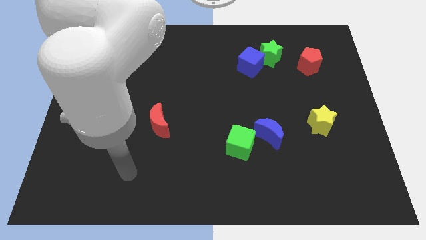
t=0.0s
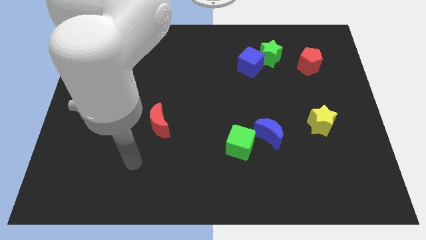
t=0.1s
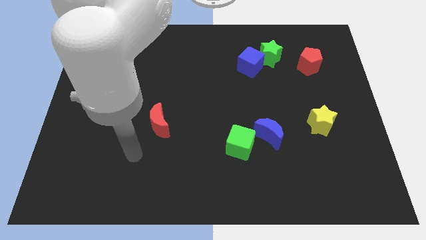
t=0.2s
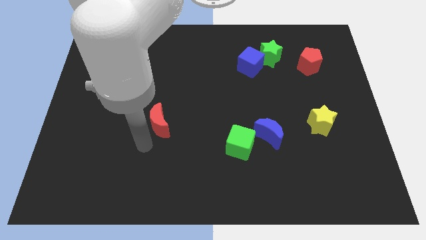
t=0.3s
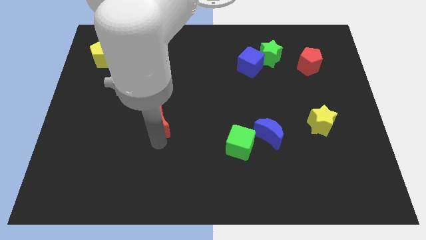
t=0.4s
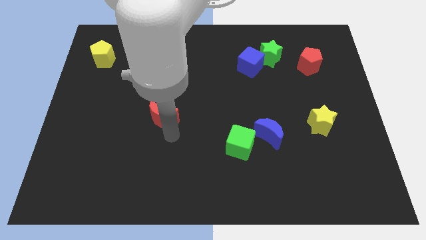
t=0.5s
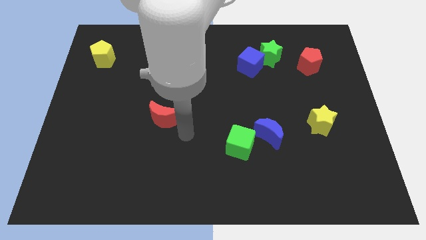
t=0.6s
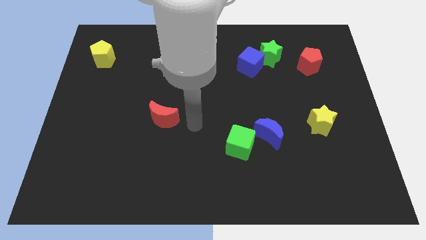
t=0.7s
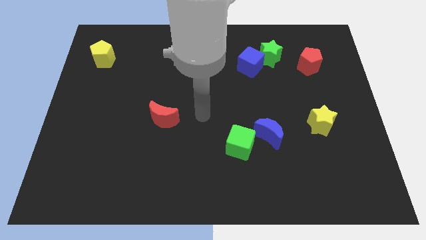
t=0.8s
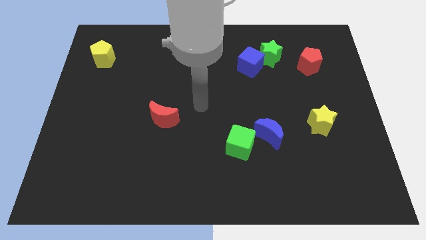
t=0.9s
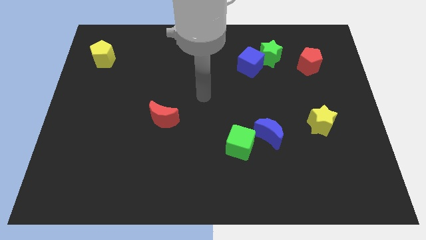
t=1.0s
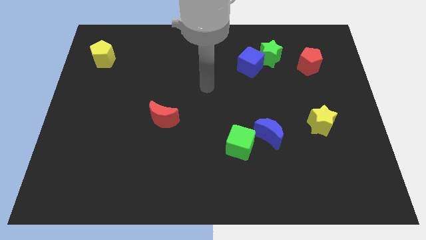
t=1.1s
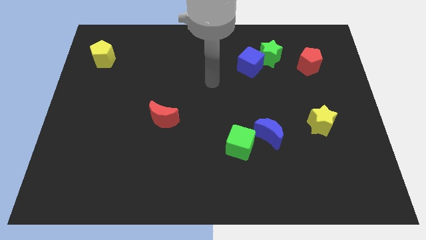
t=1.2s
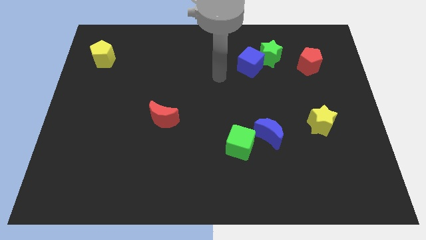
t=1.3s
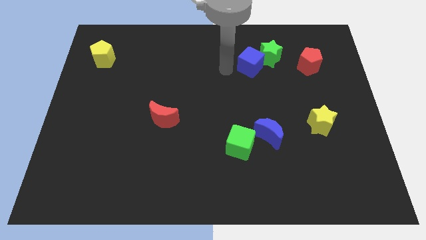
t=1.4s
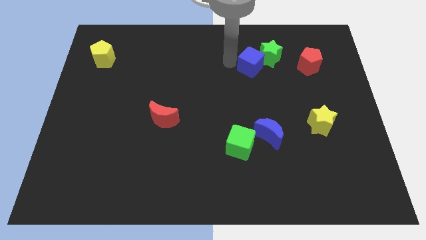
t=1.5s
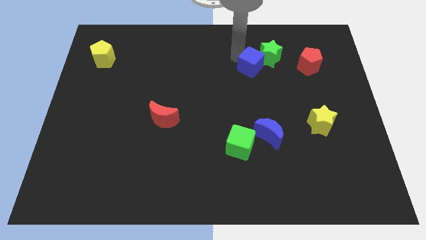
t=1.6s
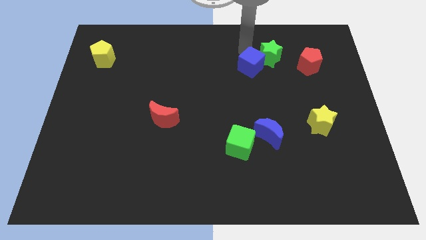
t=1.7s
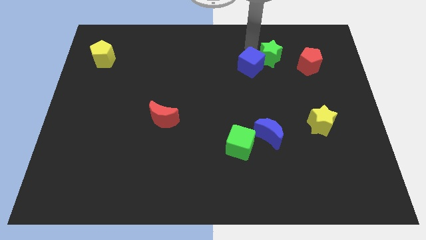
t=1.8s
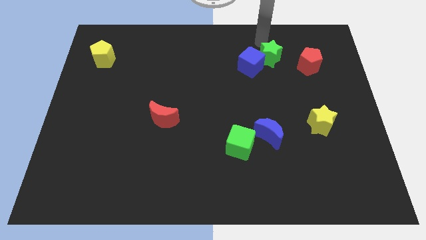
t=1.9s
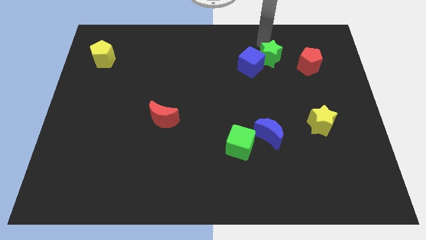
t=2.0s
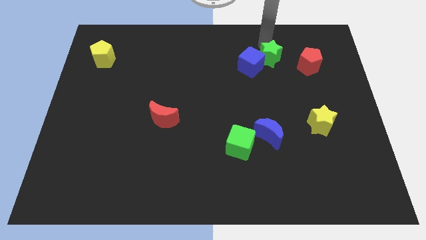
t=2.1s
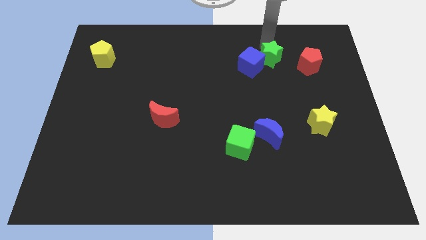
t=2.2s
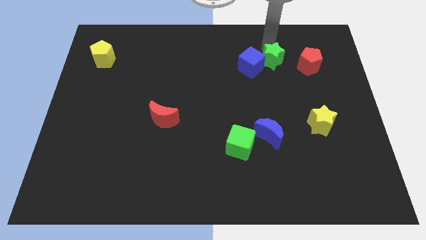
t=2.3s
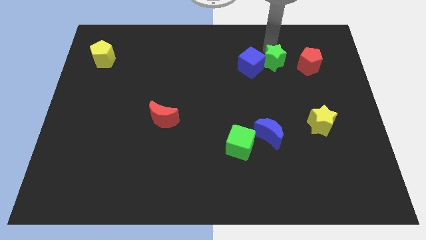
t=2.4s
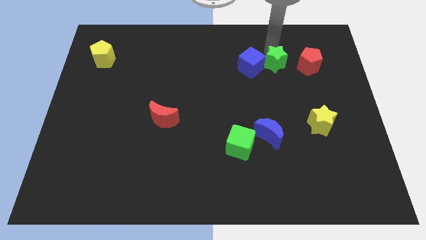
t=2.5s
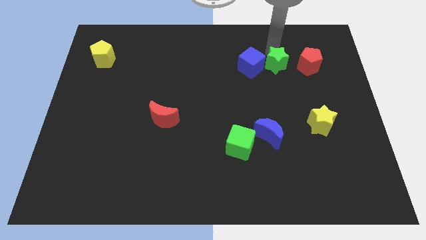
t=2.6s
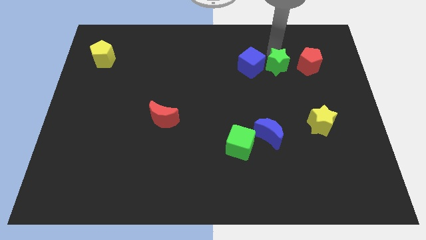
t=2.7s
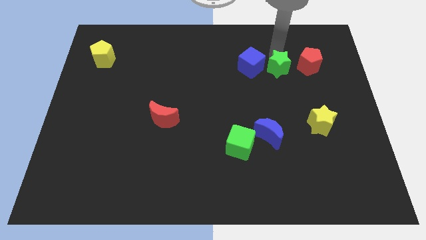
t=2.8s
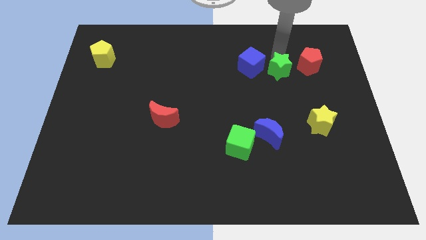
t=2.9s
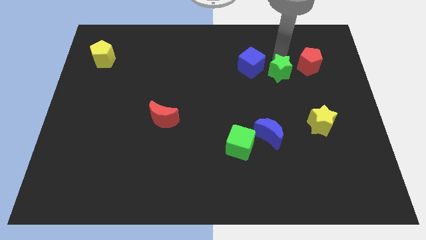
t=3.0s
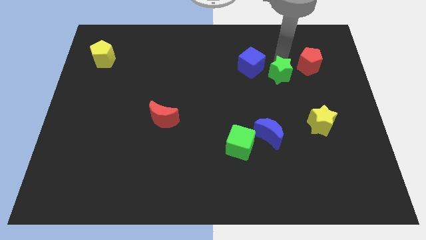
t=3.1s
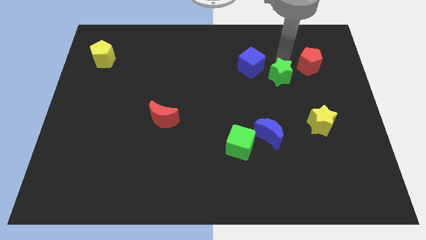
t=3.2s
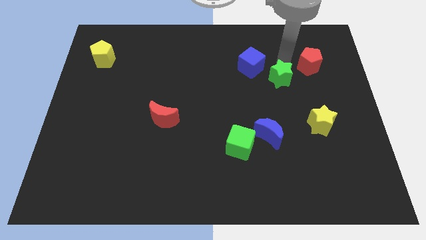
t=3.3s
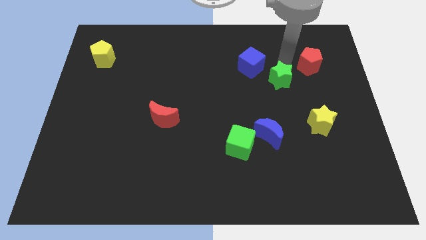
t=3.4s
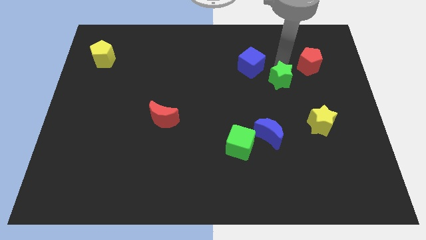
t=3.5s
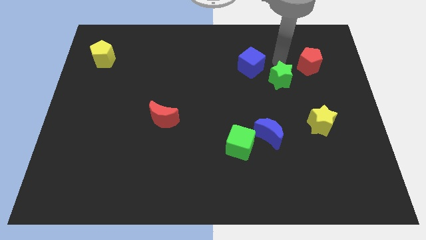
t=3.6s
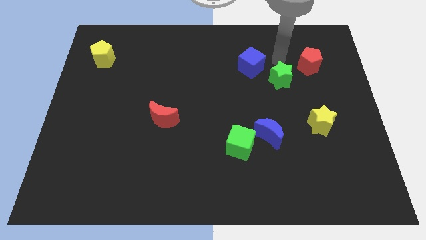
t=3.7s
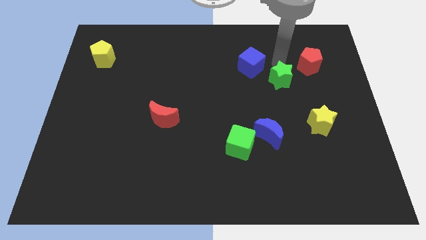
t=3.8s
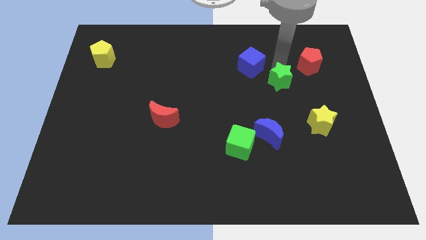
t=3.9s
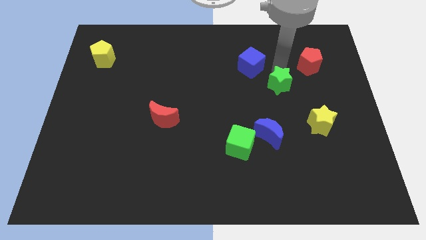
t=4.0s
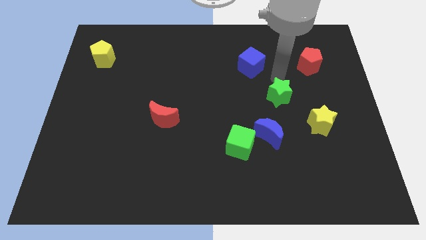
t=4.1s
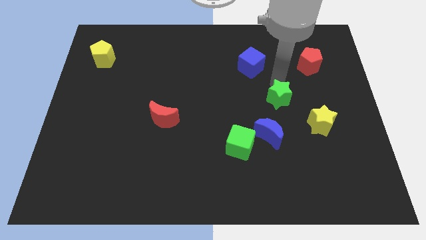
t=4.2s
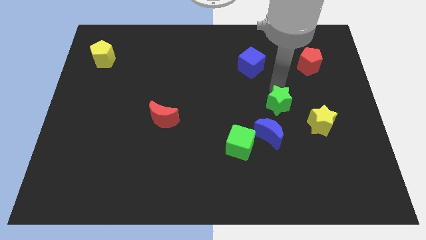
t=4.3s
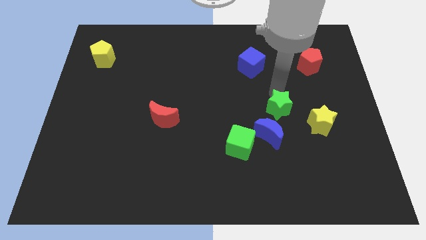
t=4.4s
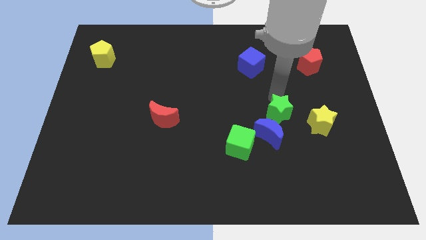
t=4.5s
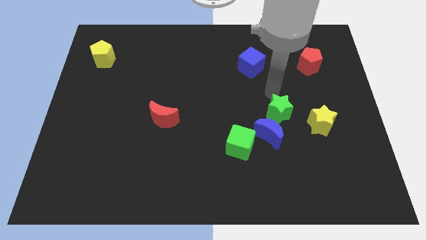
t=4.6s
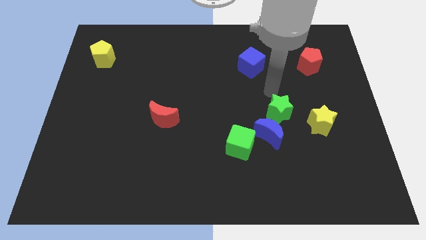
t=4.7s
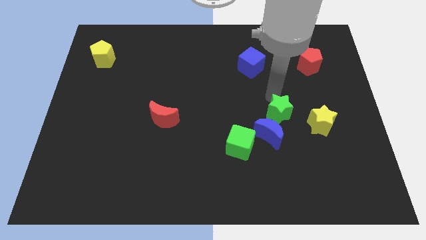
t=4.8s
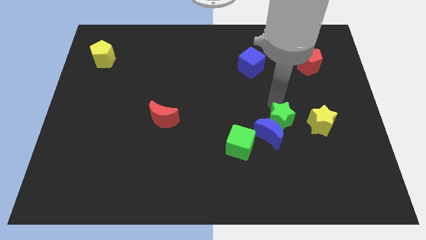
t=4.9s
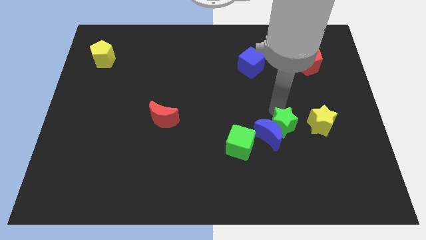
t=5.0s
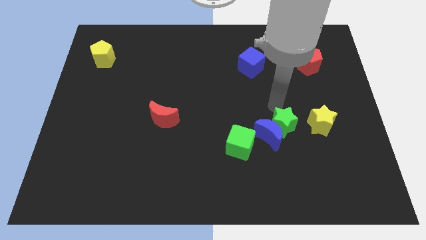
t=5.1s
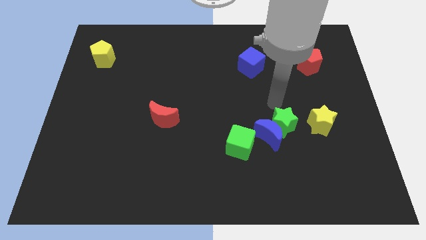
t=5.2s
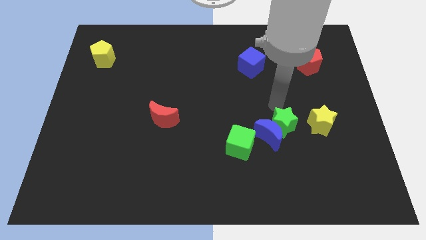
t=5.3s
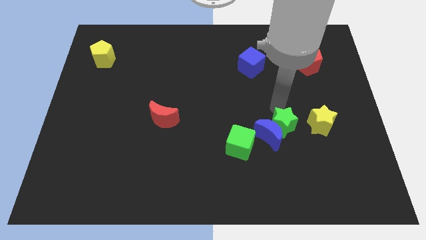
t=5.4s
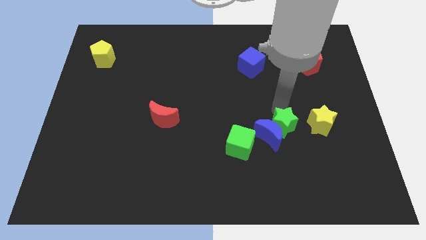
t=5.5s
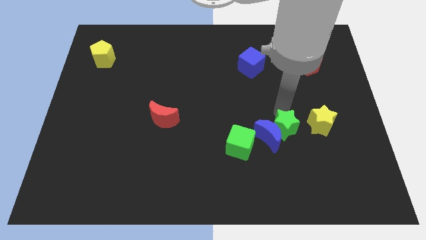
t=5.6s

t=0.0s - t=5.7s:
put the green star to the right side of the green cube

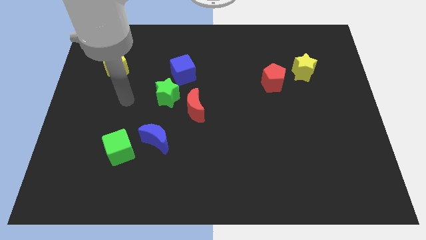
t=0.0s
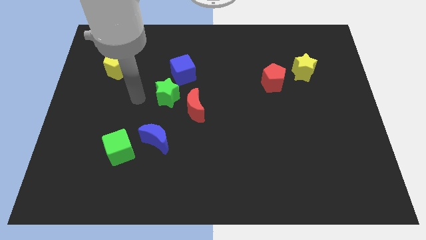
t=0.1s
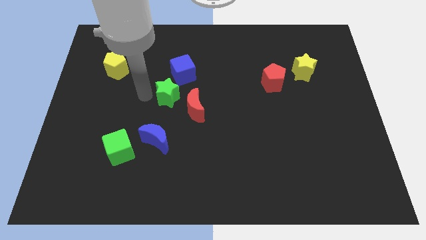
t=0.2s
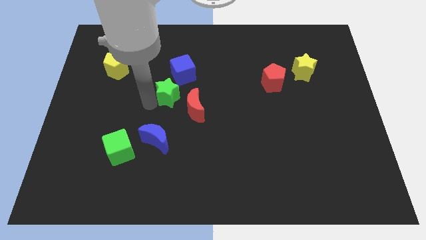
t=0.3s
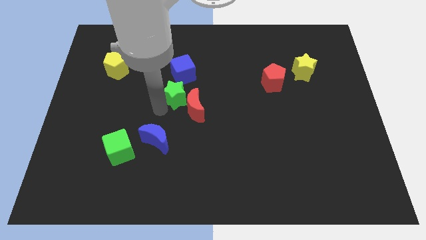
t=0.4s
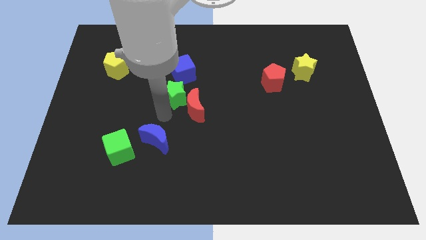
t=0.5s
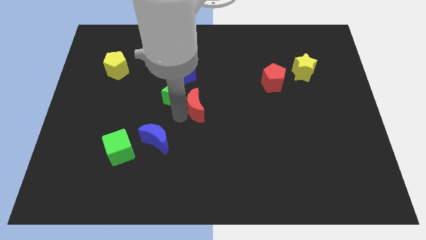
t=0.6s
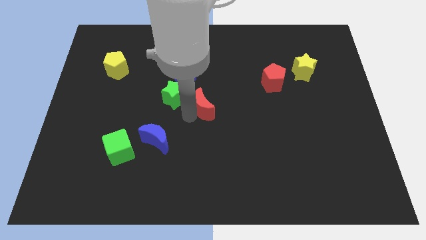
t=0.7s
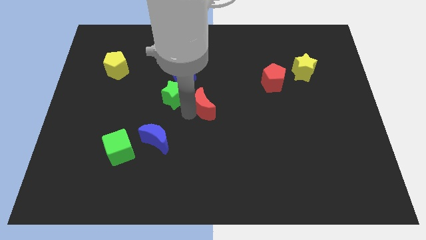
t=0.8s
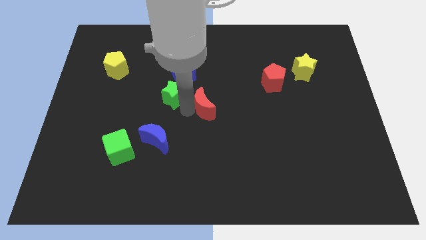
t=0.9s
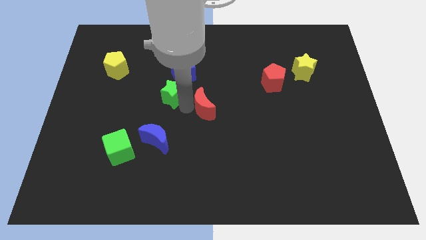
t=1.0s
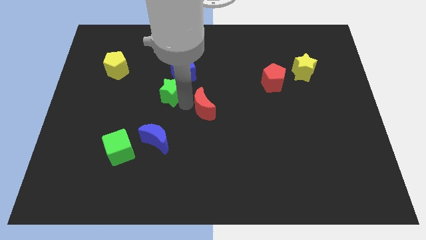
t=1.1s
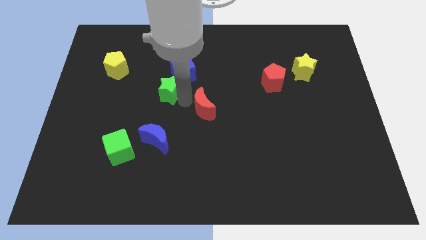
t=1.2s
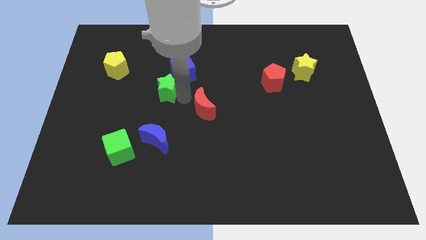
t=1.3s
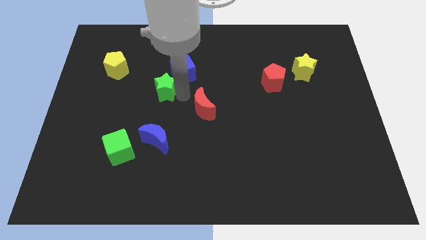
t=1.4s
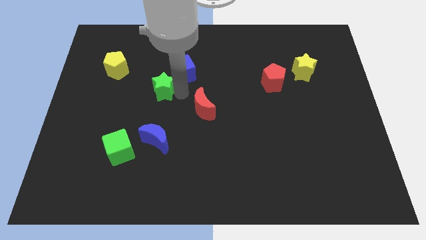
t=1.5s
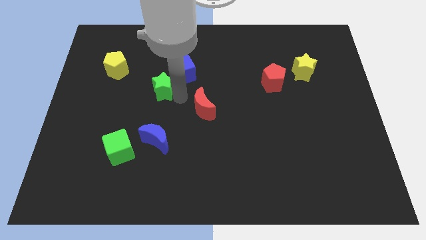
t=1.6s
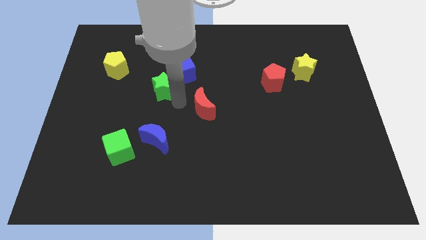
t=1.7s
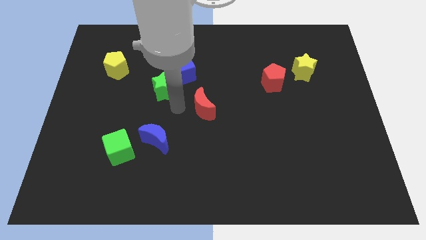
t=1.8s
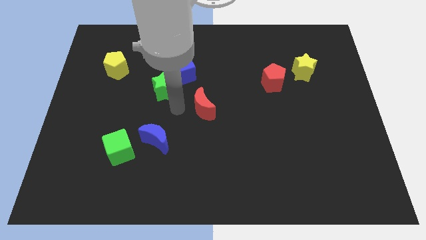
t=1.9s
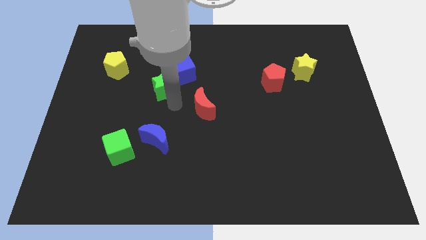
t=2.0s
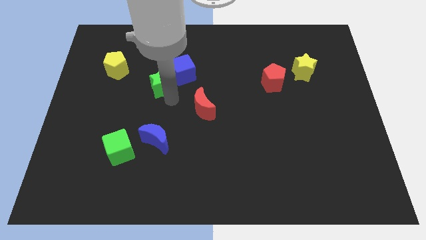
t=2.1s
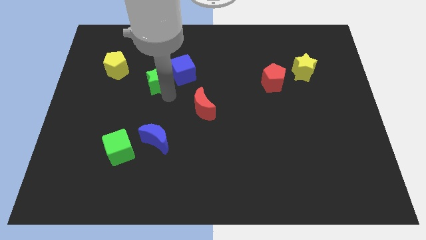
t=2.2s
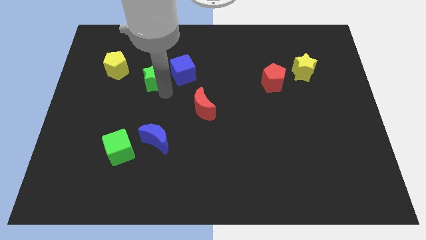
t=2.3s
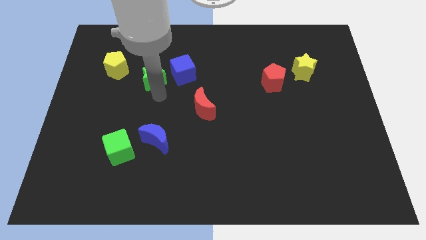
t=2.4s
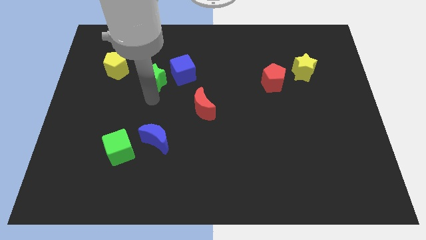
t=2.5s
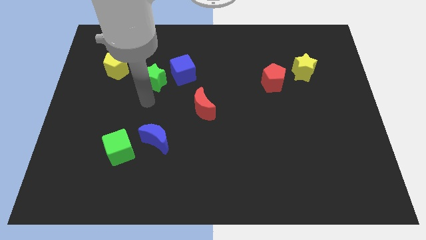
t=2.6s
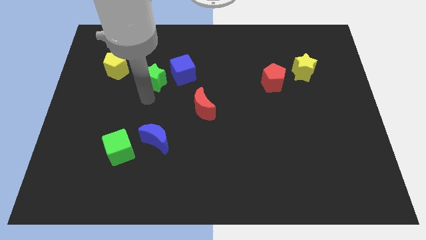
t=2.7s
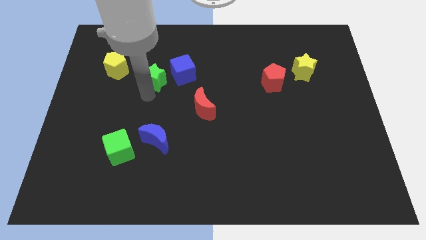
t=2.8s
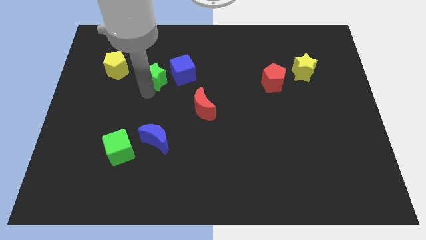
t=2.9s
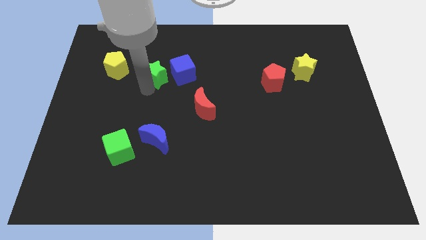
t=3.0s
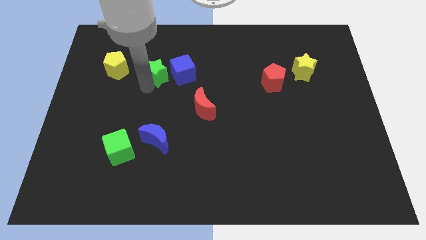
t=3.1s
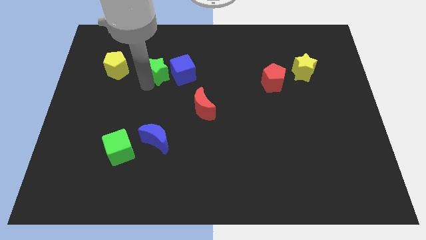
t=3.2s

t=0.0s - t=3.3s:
slide the green star diagonally up and to the left of the blue cube
